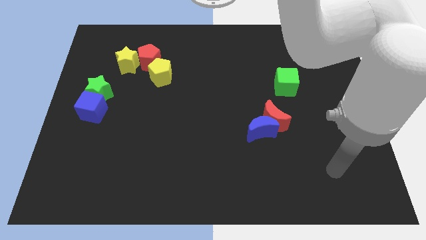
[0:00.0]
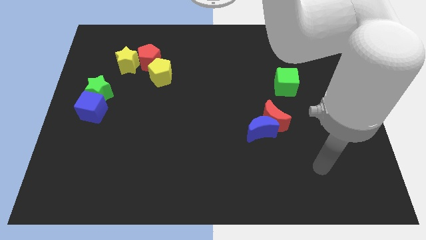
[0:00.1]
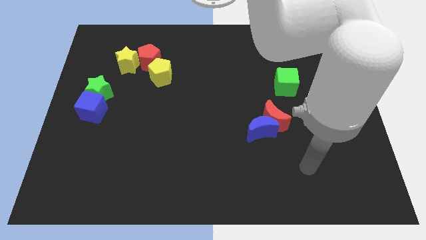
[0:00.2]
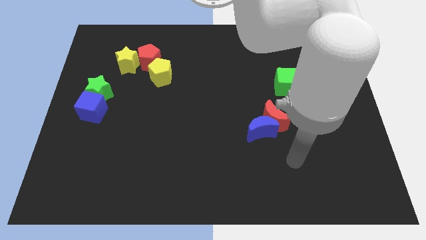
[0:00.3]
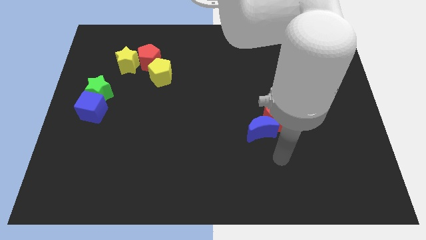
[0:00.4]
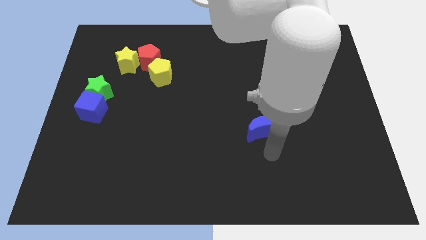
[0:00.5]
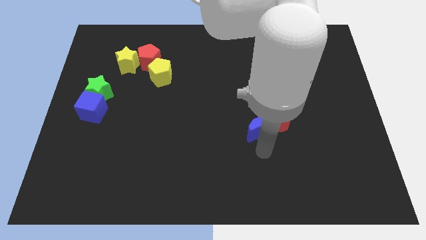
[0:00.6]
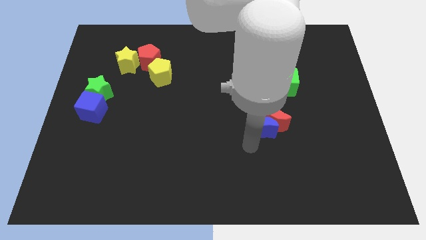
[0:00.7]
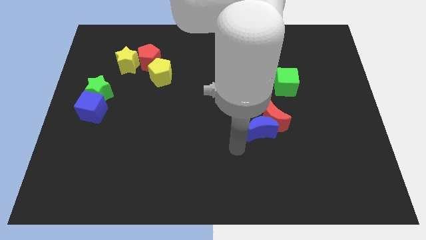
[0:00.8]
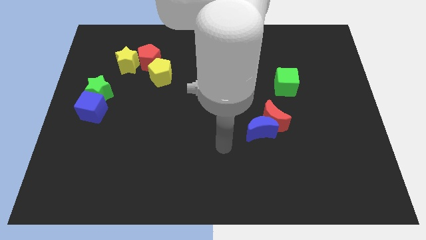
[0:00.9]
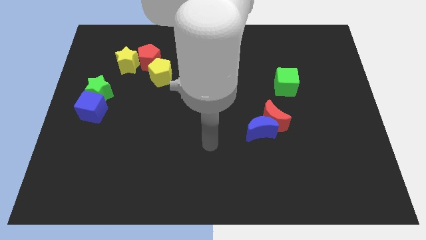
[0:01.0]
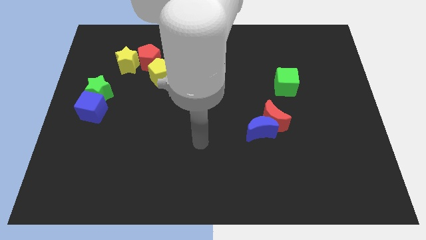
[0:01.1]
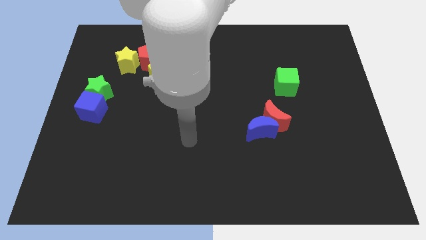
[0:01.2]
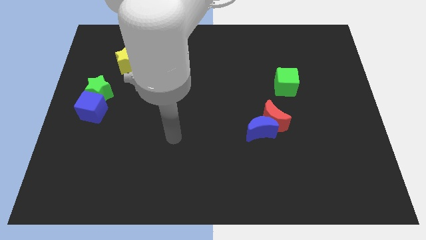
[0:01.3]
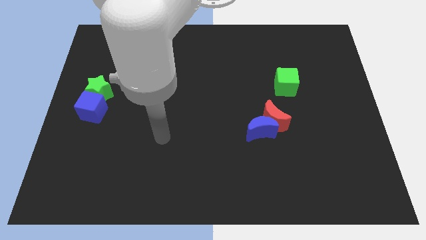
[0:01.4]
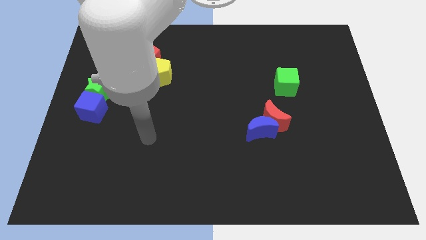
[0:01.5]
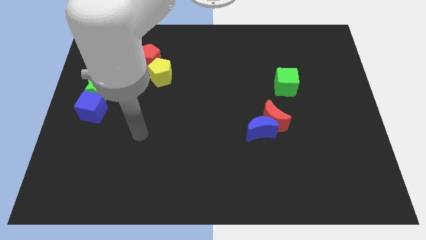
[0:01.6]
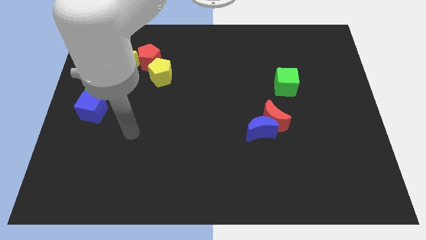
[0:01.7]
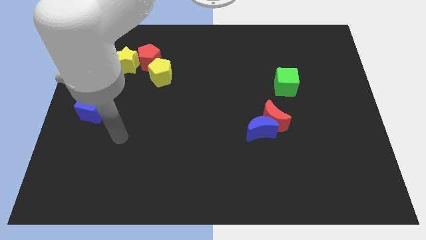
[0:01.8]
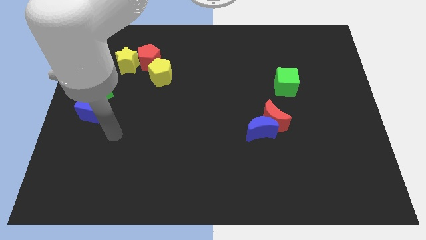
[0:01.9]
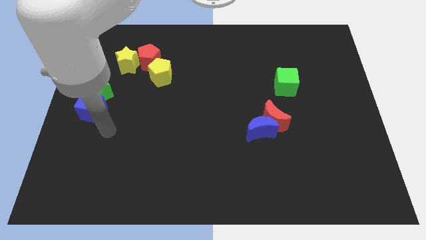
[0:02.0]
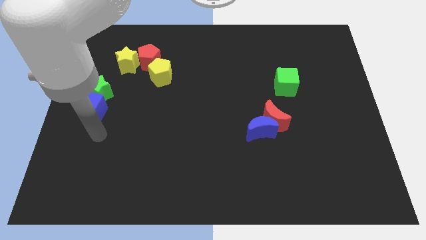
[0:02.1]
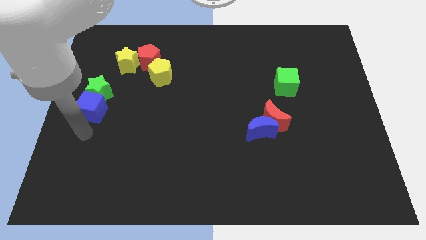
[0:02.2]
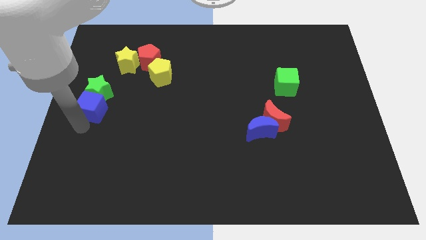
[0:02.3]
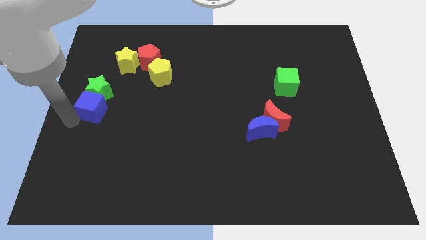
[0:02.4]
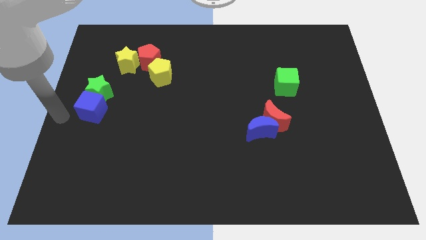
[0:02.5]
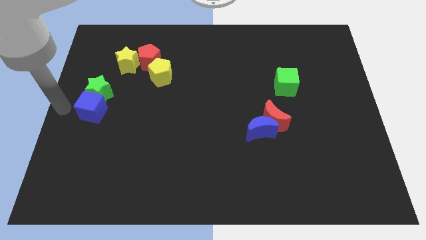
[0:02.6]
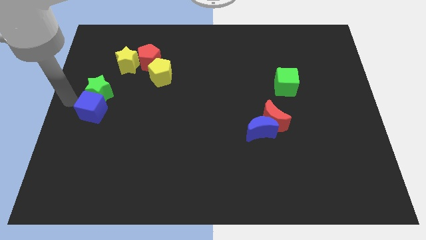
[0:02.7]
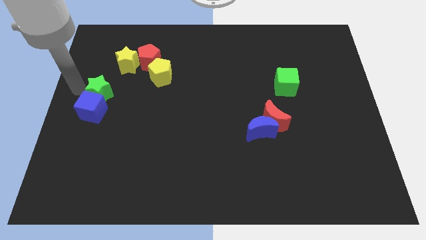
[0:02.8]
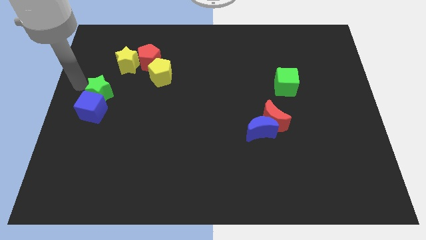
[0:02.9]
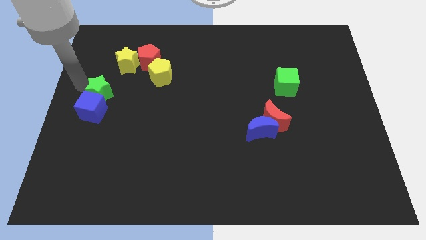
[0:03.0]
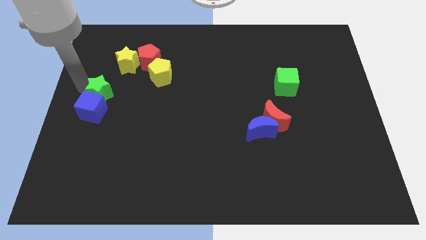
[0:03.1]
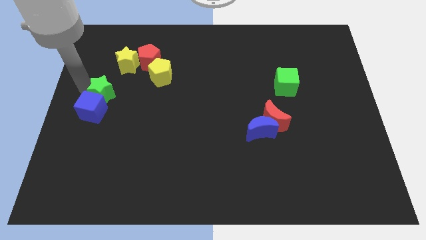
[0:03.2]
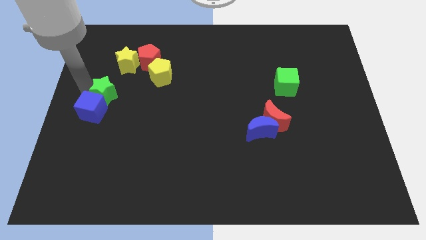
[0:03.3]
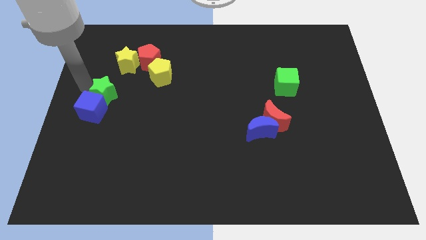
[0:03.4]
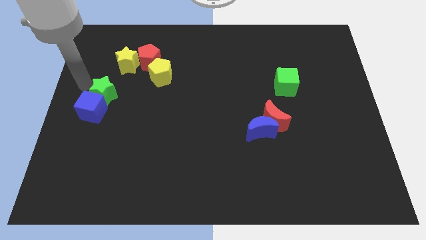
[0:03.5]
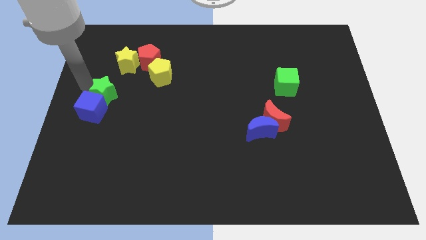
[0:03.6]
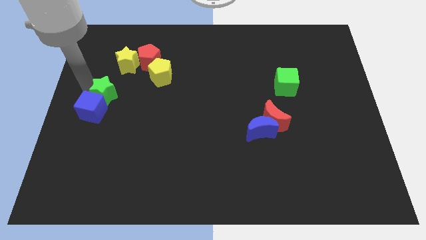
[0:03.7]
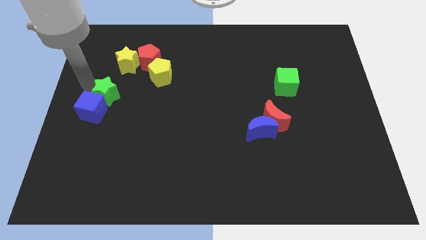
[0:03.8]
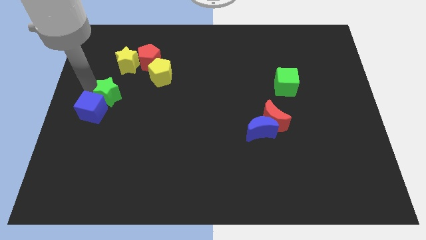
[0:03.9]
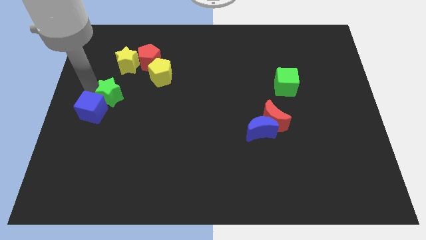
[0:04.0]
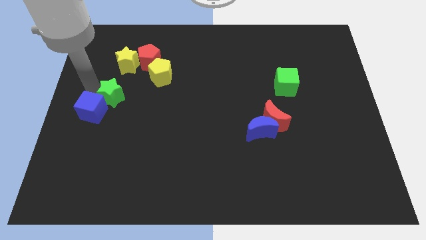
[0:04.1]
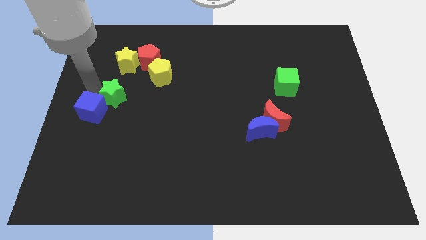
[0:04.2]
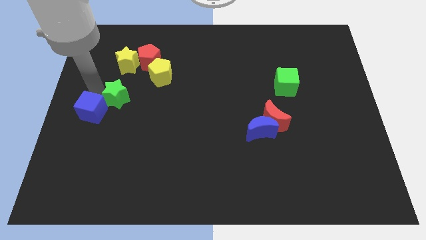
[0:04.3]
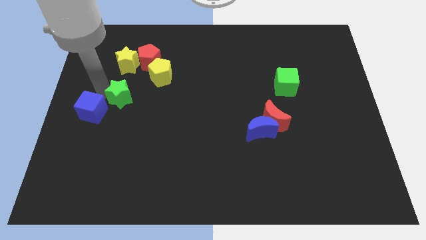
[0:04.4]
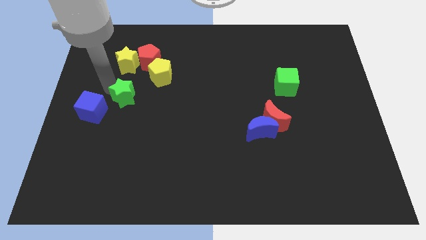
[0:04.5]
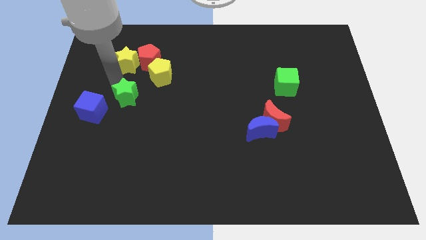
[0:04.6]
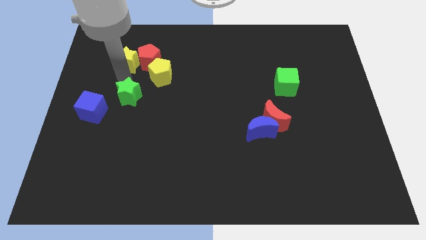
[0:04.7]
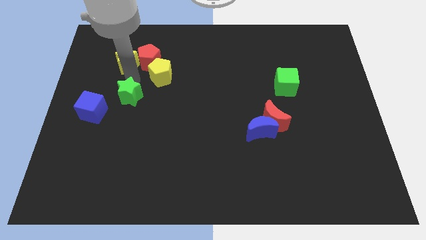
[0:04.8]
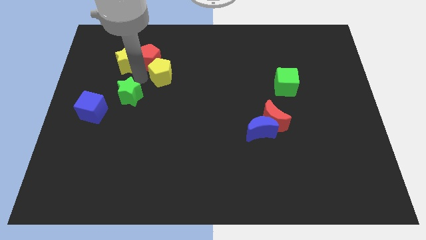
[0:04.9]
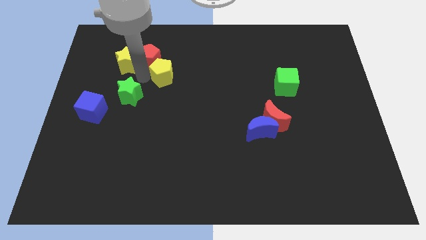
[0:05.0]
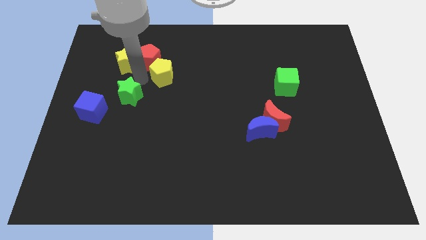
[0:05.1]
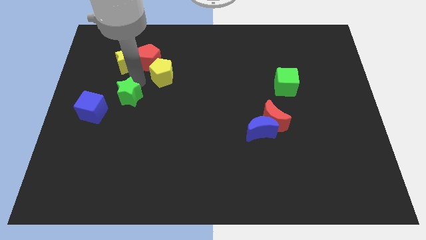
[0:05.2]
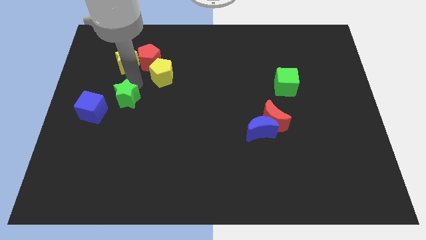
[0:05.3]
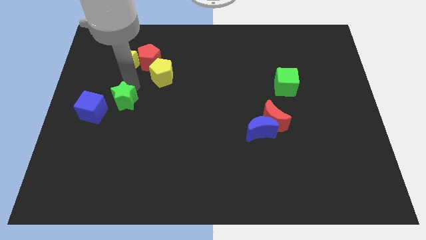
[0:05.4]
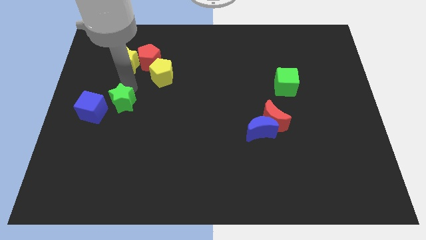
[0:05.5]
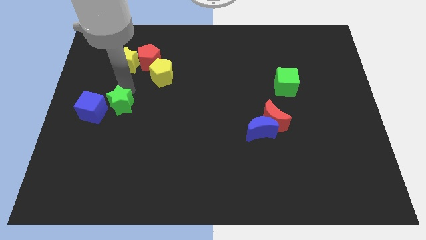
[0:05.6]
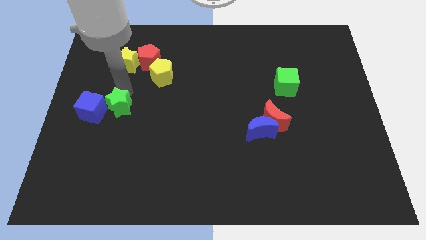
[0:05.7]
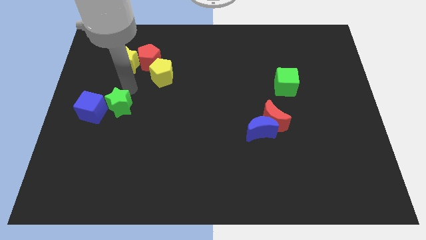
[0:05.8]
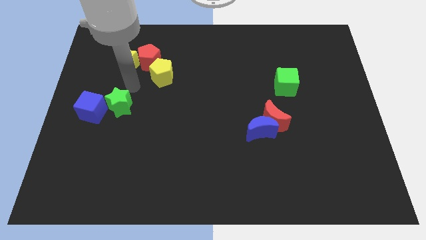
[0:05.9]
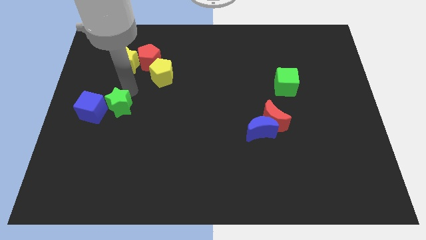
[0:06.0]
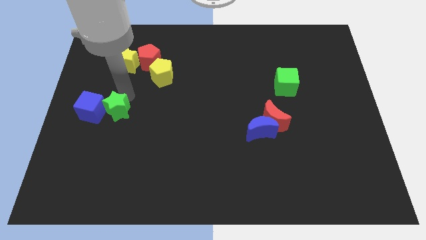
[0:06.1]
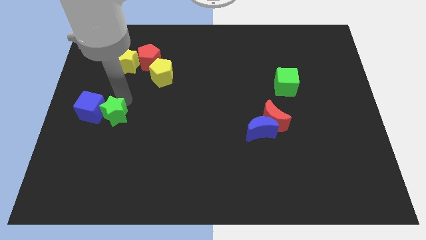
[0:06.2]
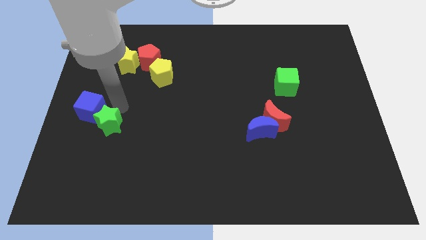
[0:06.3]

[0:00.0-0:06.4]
push the green star somewhat downwards

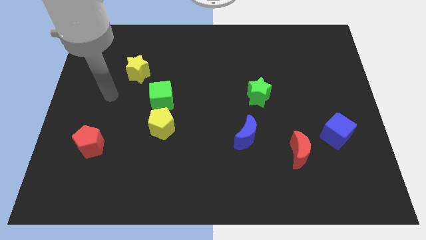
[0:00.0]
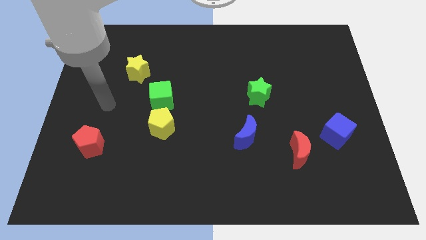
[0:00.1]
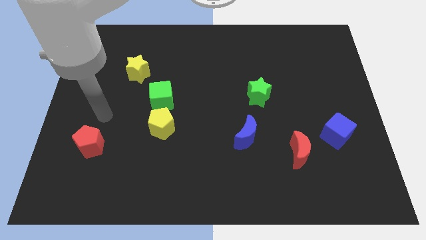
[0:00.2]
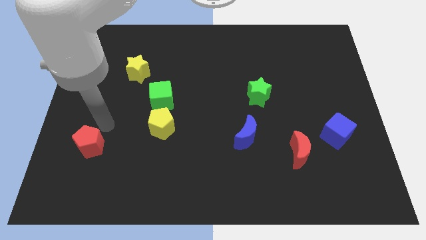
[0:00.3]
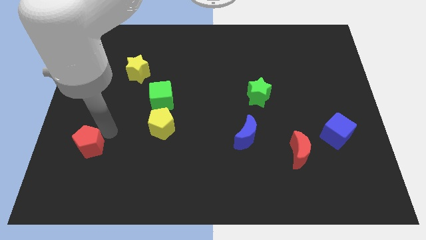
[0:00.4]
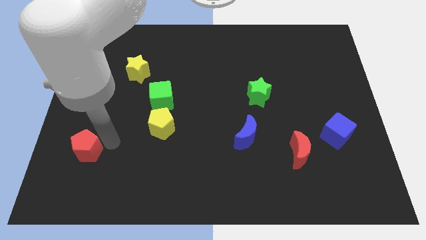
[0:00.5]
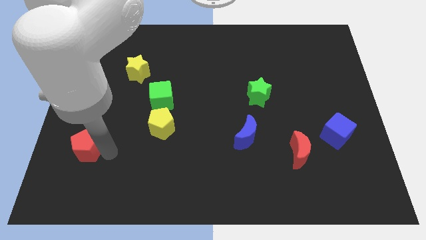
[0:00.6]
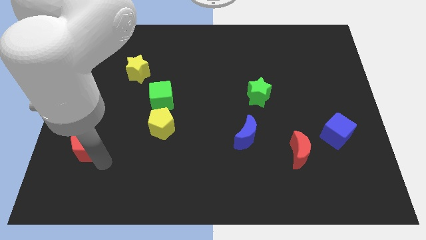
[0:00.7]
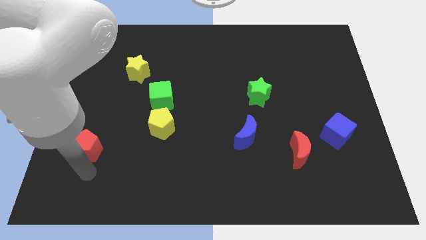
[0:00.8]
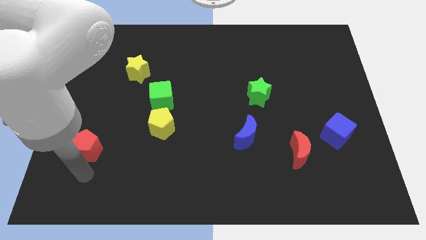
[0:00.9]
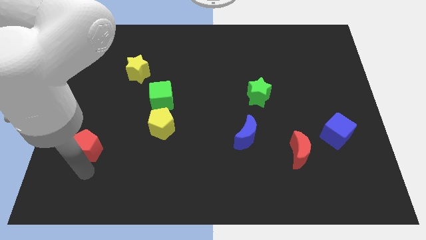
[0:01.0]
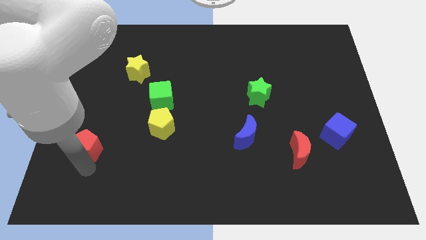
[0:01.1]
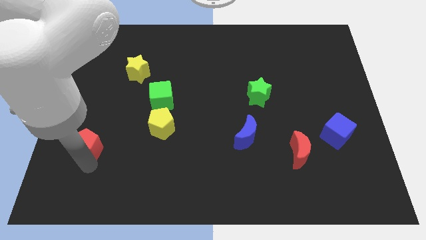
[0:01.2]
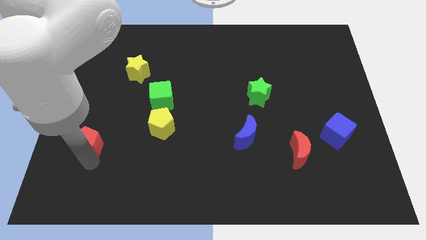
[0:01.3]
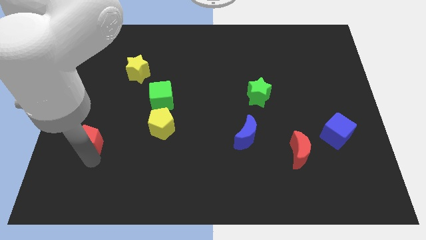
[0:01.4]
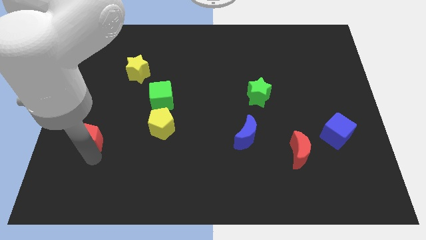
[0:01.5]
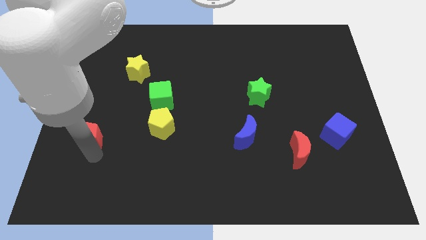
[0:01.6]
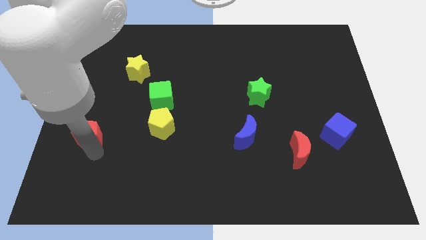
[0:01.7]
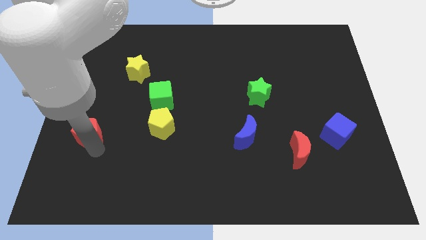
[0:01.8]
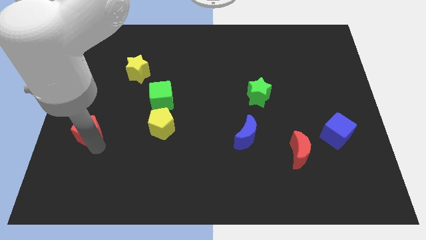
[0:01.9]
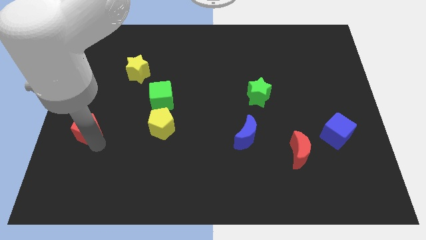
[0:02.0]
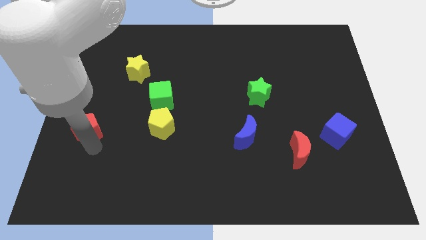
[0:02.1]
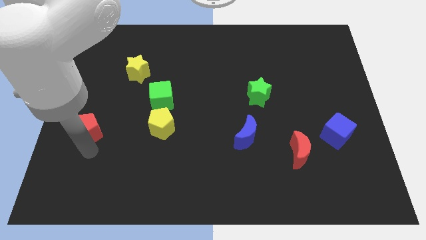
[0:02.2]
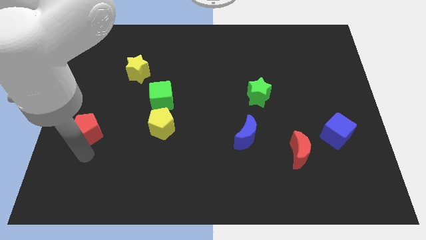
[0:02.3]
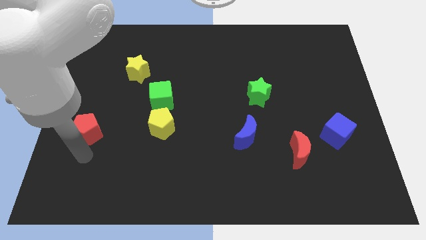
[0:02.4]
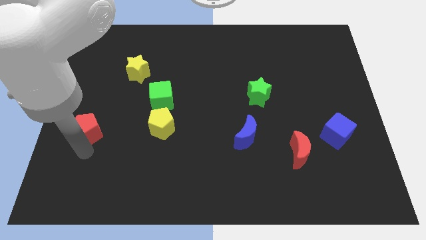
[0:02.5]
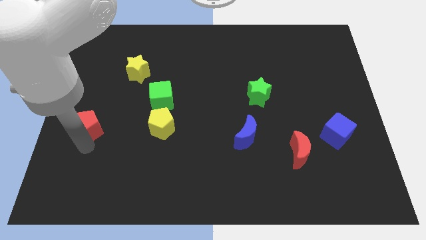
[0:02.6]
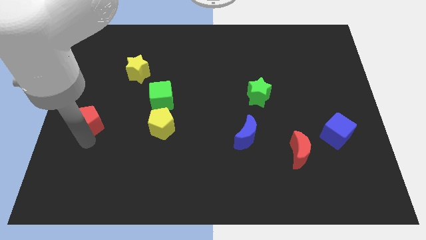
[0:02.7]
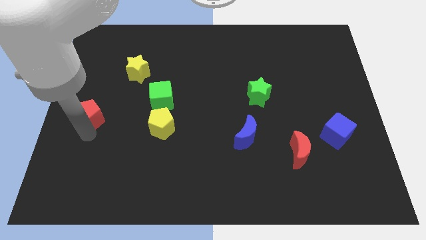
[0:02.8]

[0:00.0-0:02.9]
move the red pentagon somewhat upwards
